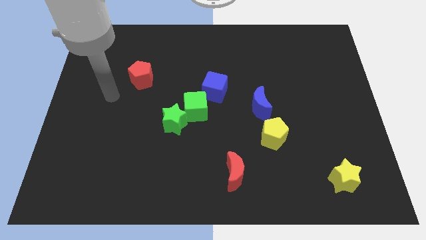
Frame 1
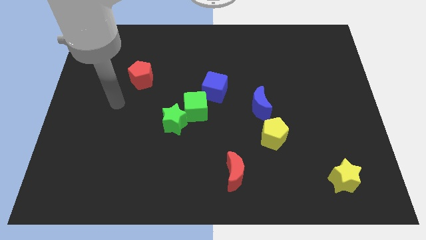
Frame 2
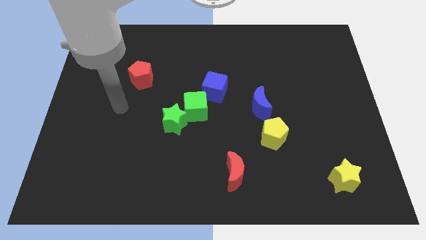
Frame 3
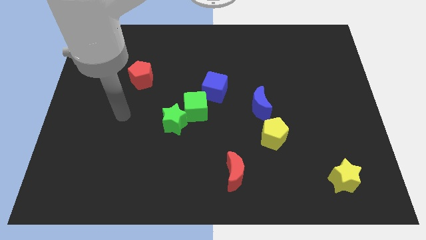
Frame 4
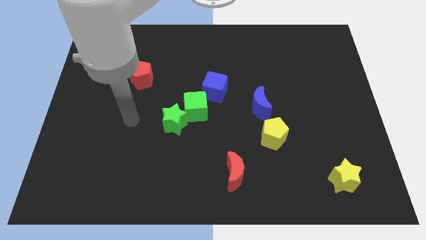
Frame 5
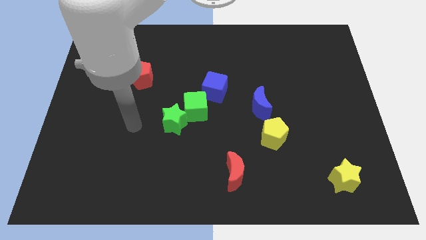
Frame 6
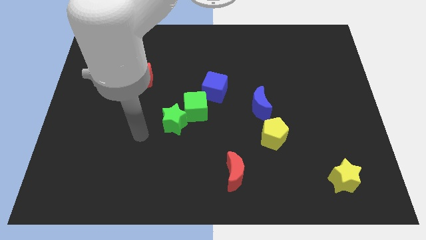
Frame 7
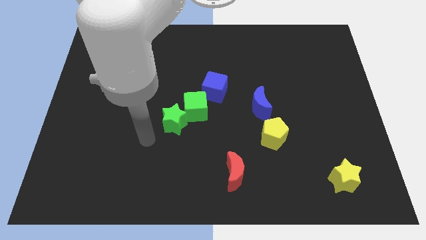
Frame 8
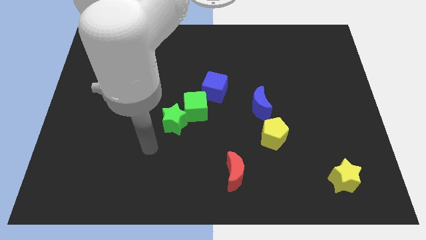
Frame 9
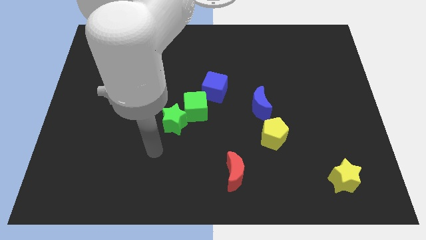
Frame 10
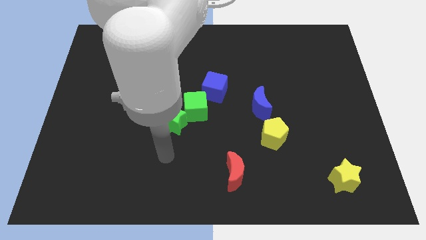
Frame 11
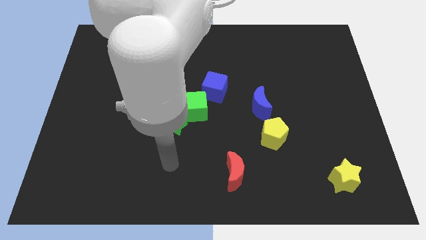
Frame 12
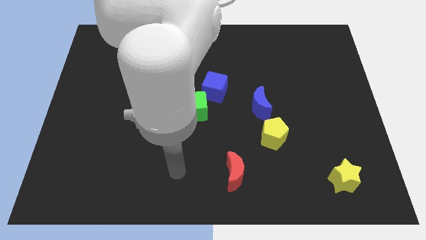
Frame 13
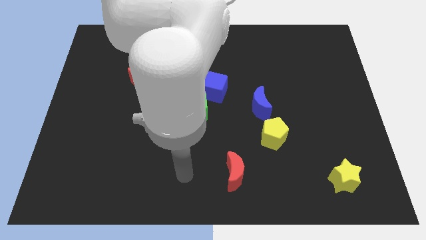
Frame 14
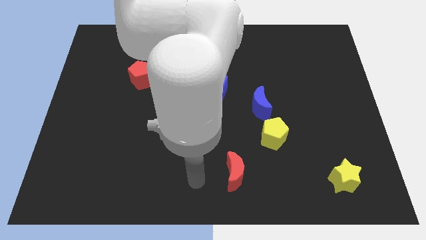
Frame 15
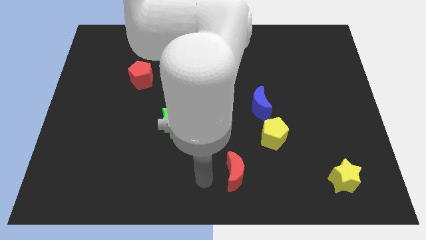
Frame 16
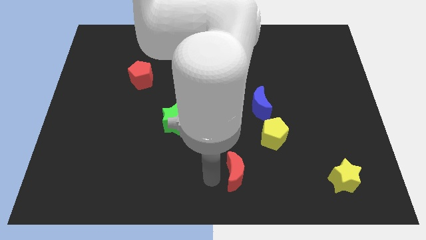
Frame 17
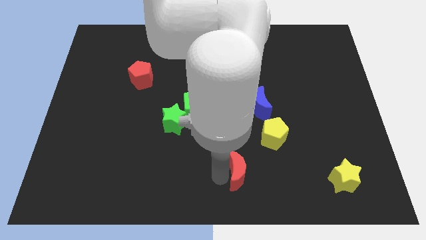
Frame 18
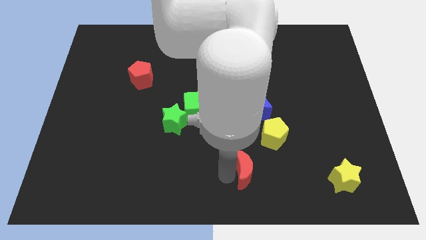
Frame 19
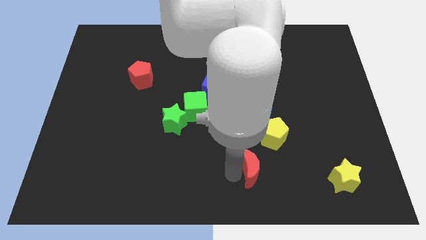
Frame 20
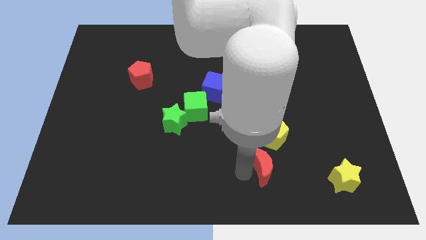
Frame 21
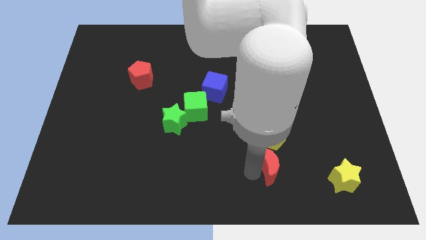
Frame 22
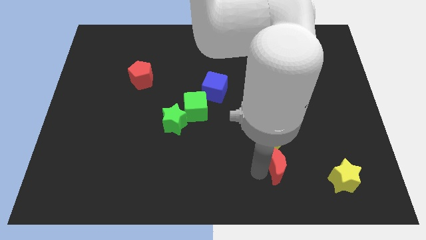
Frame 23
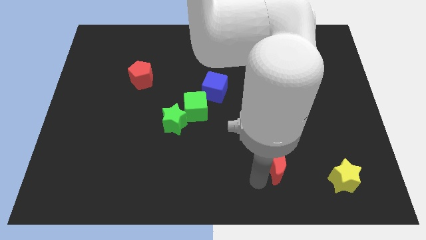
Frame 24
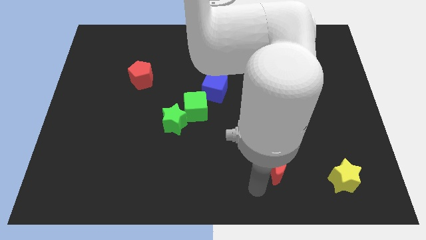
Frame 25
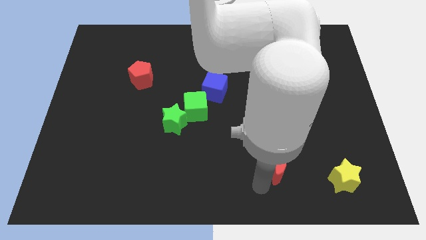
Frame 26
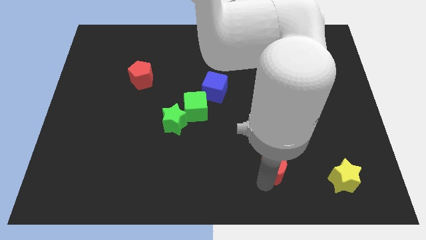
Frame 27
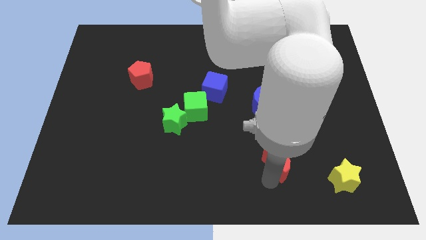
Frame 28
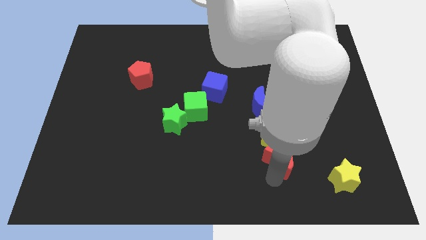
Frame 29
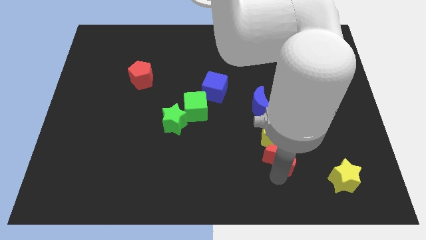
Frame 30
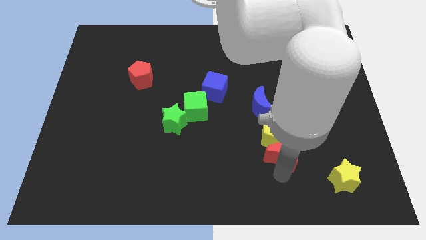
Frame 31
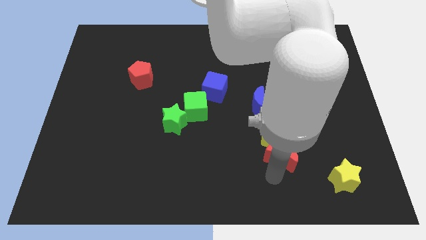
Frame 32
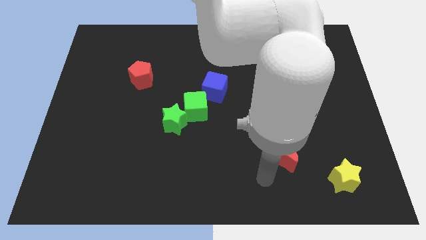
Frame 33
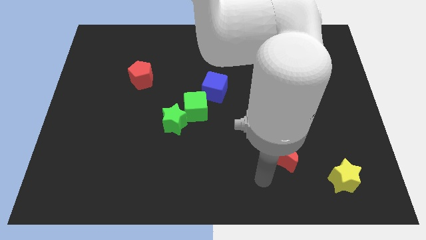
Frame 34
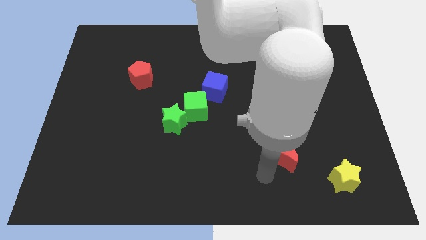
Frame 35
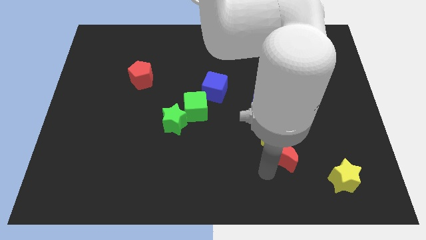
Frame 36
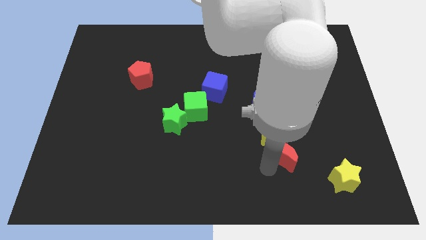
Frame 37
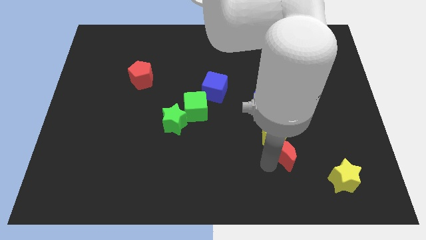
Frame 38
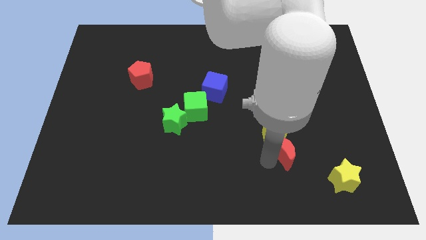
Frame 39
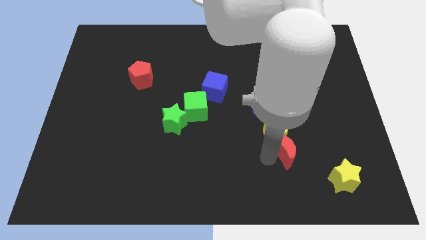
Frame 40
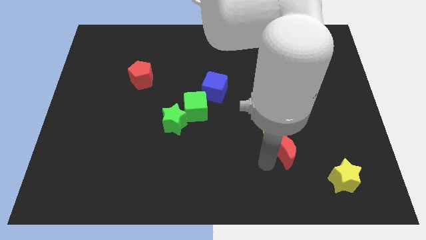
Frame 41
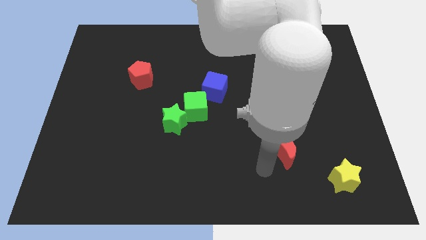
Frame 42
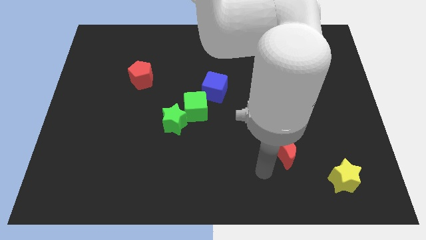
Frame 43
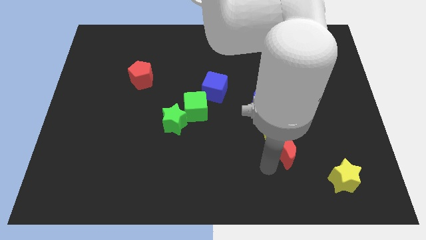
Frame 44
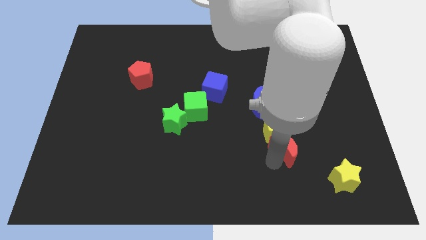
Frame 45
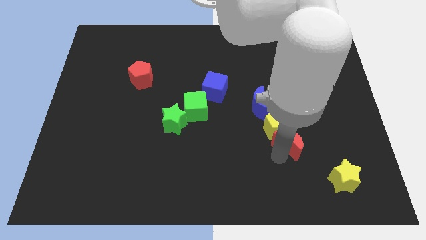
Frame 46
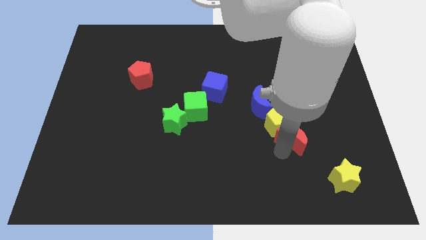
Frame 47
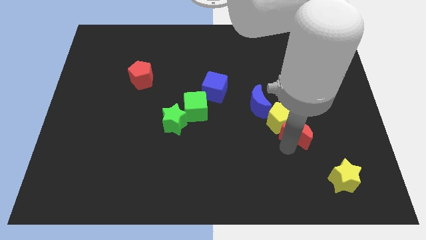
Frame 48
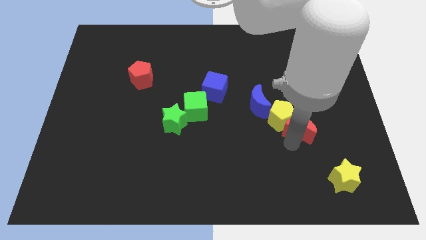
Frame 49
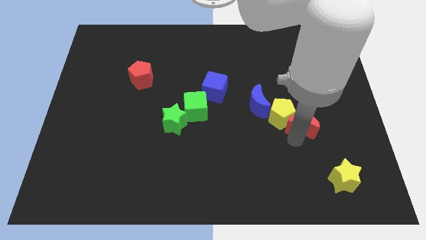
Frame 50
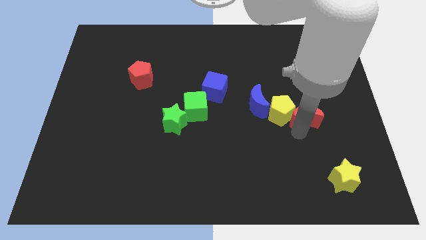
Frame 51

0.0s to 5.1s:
move the red moon diagonally upwards and right

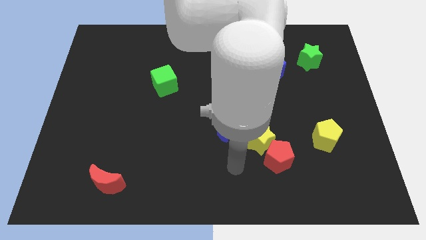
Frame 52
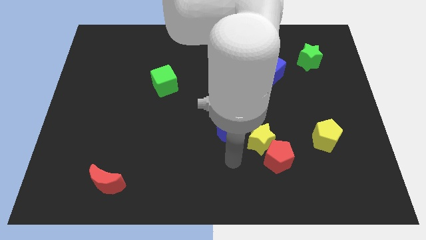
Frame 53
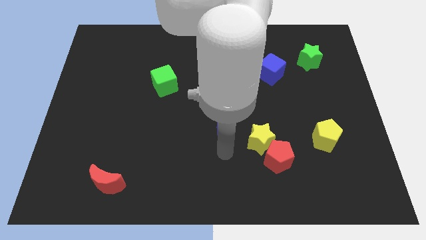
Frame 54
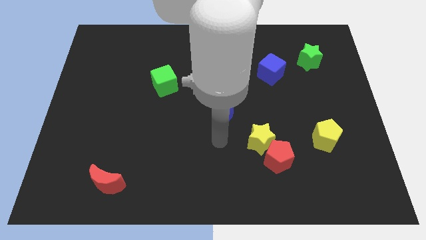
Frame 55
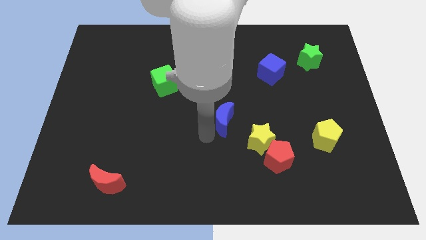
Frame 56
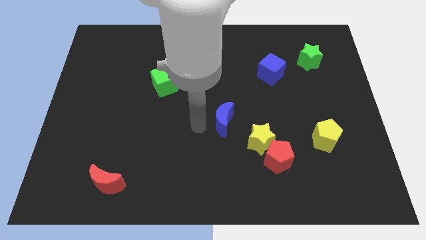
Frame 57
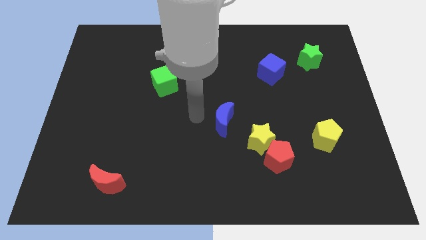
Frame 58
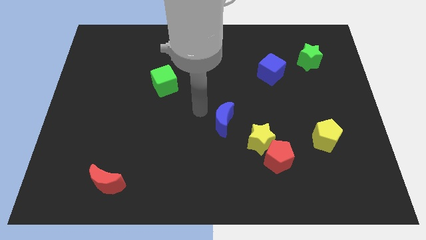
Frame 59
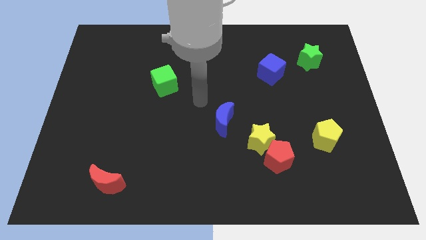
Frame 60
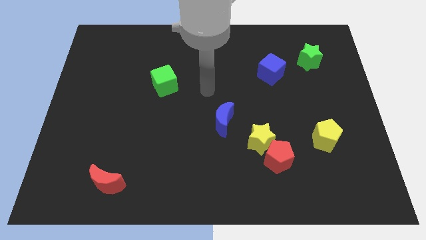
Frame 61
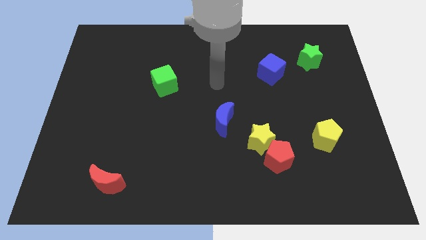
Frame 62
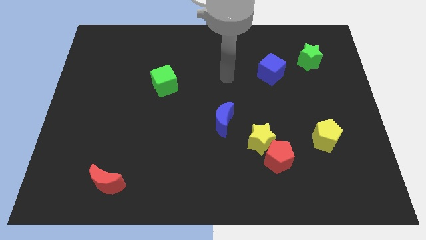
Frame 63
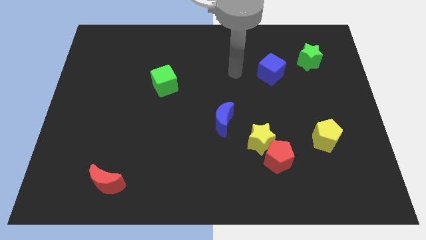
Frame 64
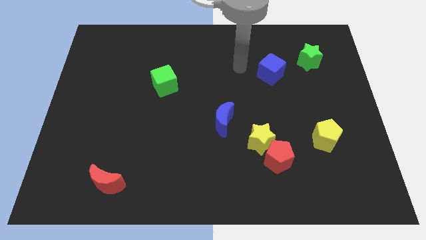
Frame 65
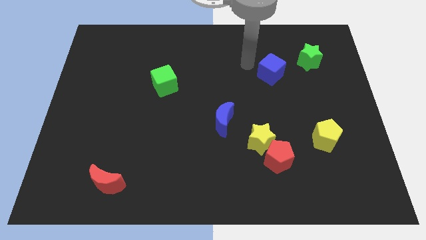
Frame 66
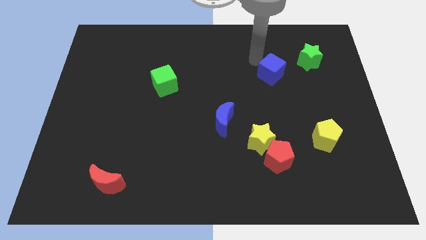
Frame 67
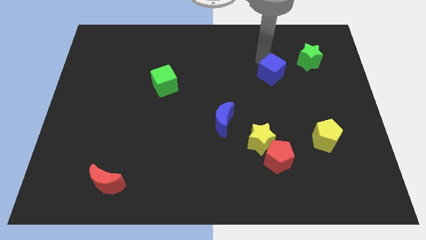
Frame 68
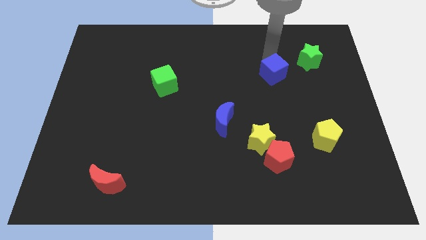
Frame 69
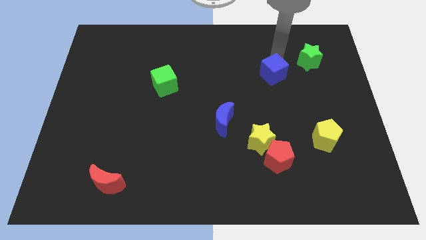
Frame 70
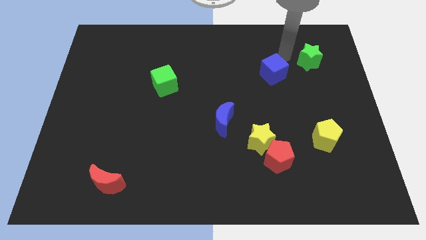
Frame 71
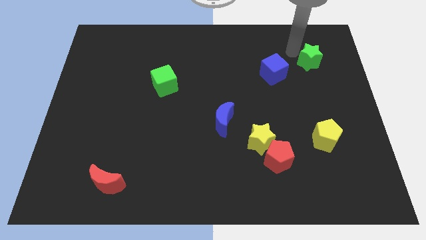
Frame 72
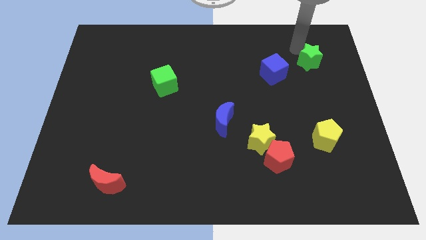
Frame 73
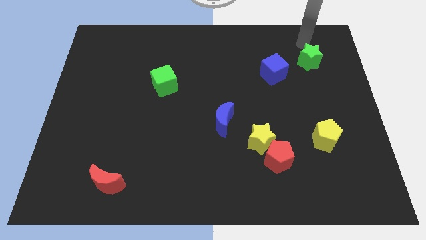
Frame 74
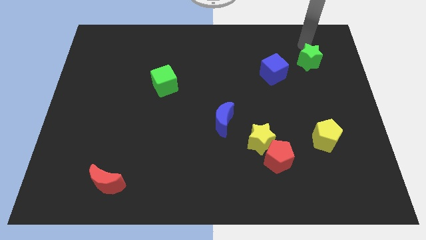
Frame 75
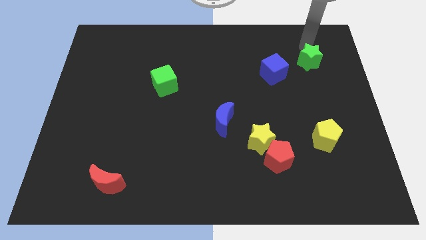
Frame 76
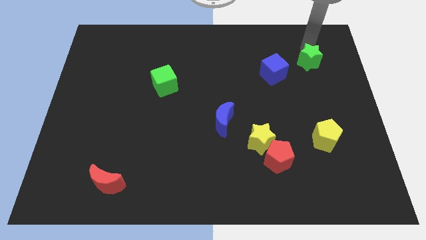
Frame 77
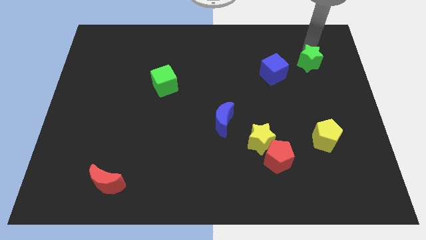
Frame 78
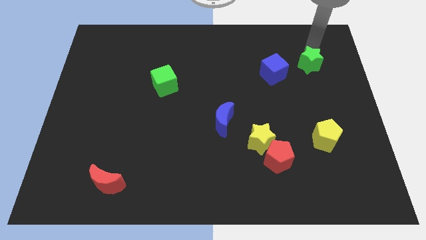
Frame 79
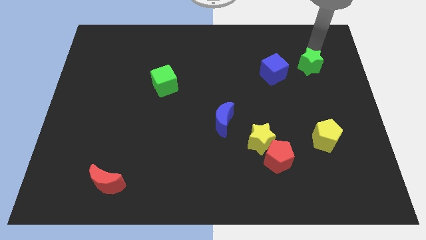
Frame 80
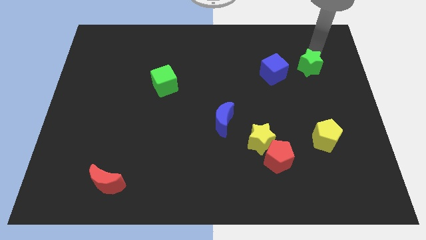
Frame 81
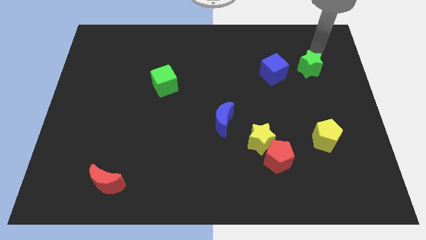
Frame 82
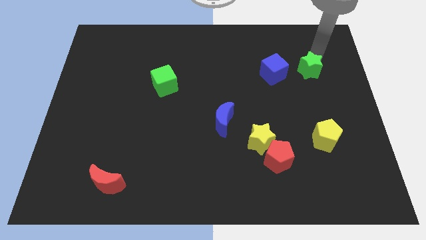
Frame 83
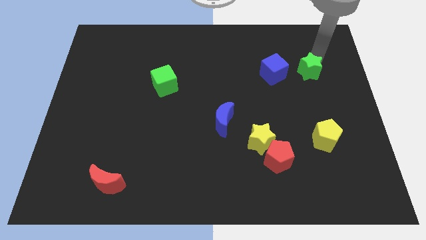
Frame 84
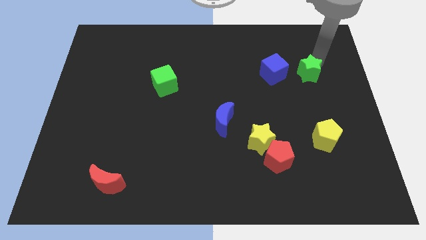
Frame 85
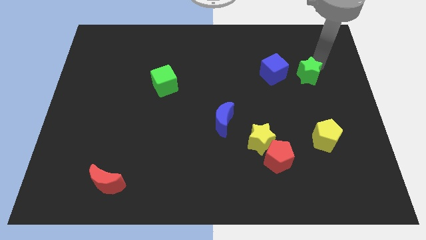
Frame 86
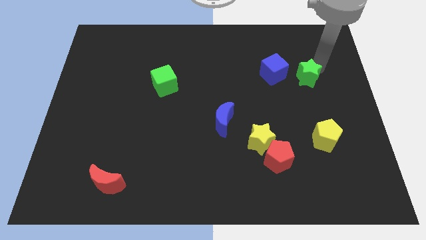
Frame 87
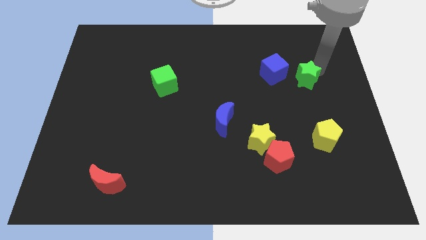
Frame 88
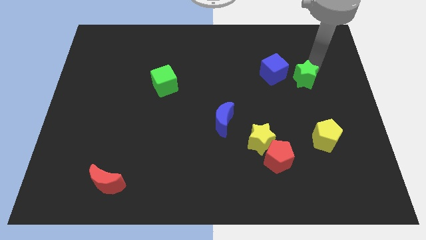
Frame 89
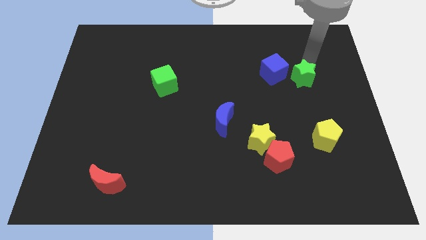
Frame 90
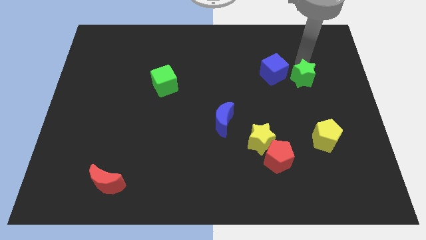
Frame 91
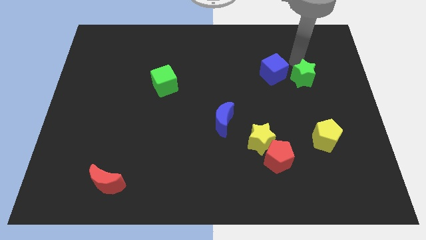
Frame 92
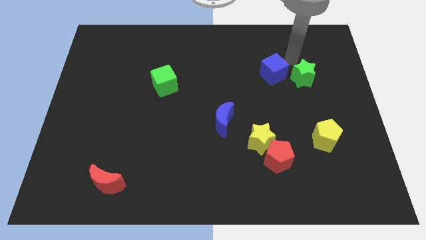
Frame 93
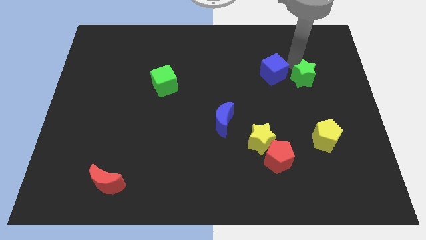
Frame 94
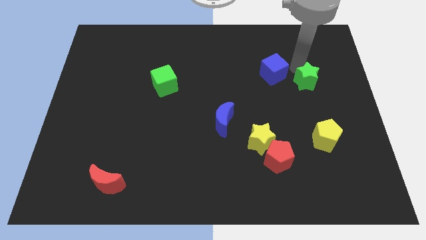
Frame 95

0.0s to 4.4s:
slightly move the green star downwards
